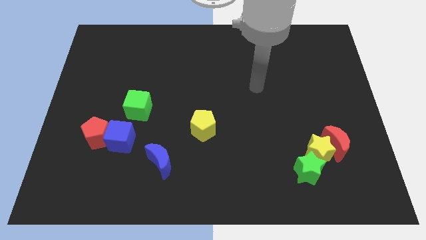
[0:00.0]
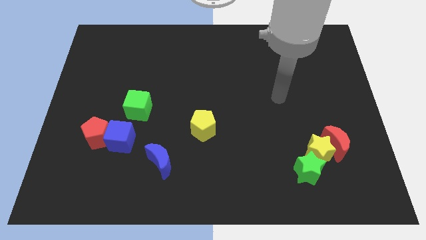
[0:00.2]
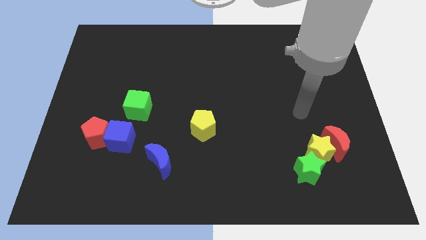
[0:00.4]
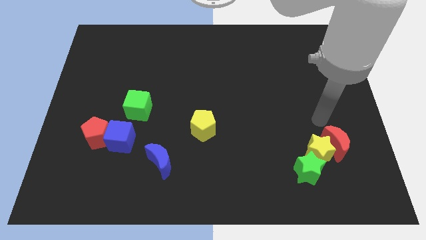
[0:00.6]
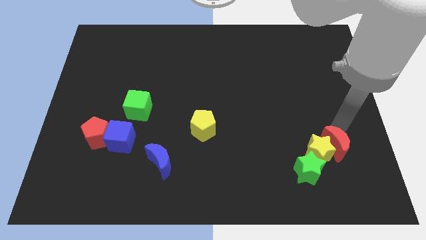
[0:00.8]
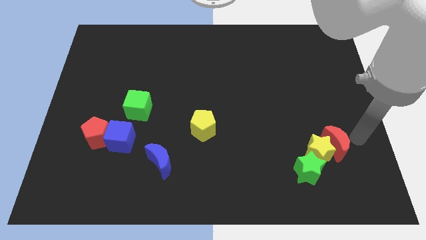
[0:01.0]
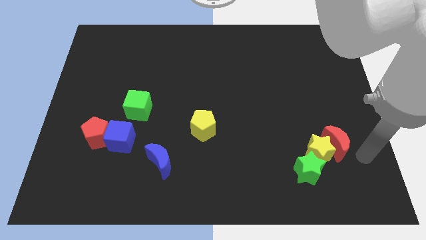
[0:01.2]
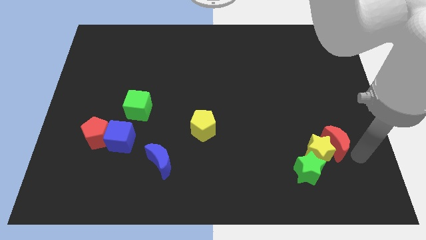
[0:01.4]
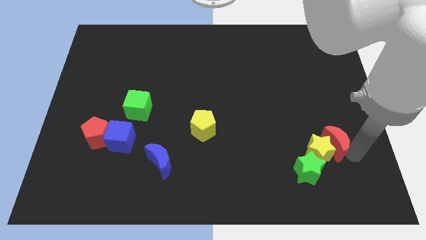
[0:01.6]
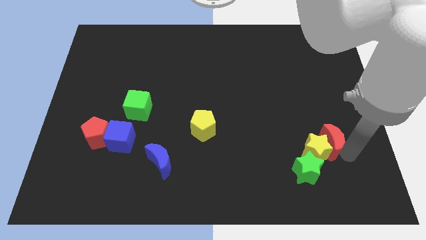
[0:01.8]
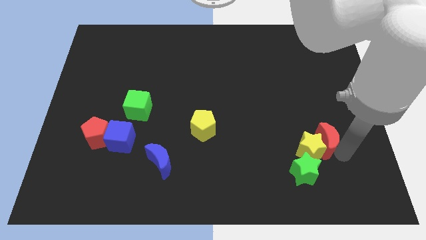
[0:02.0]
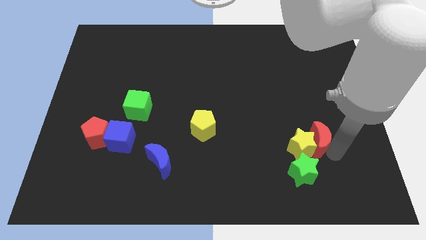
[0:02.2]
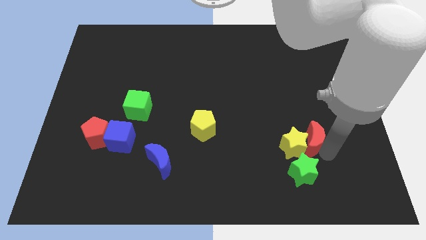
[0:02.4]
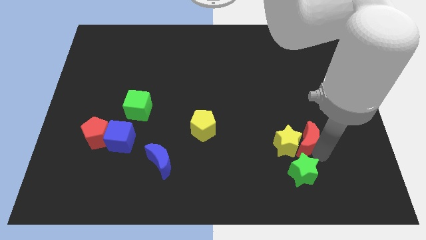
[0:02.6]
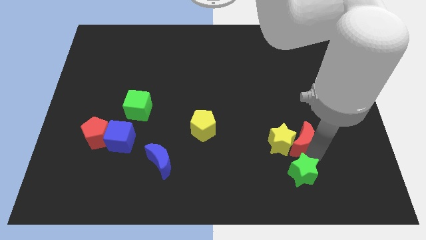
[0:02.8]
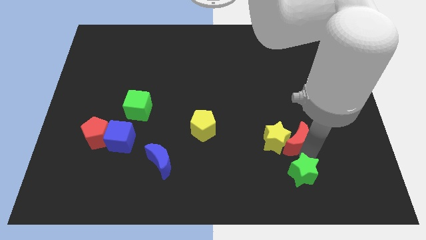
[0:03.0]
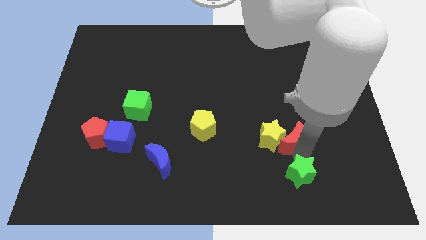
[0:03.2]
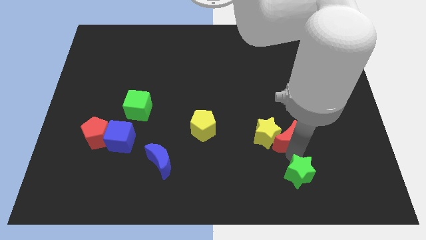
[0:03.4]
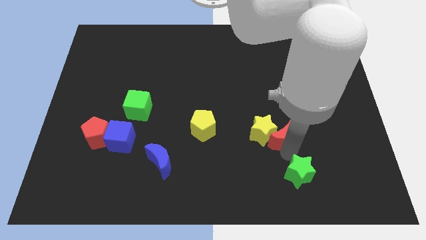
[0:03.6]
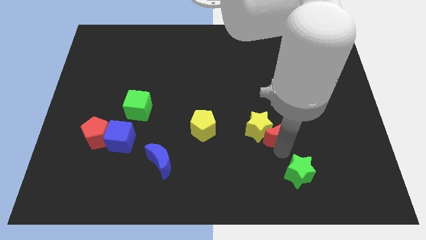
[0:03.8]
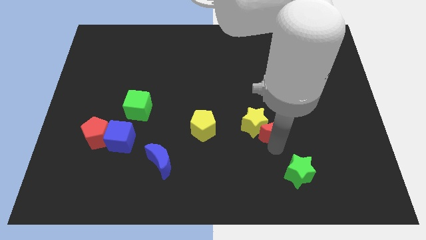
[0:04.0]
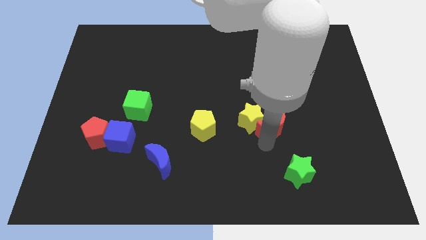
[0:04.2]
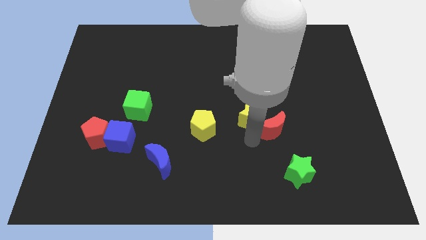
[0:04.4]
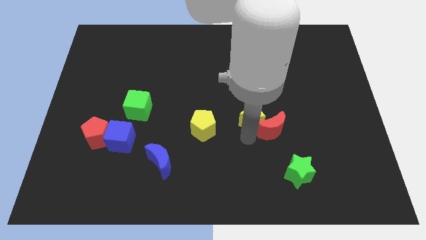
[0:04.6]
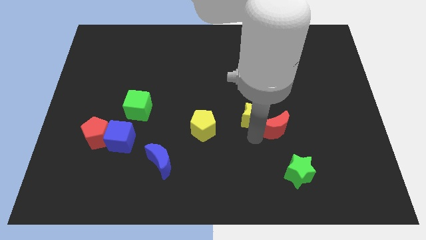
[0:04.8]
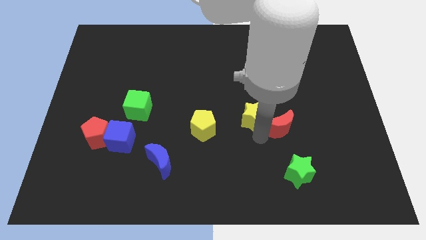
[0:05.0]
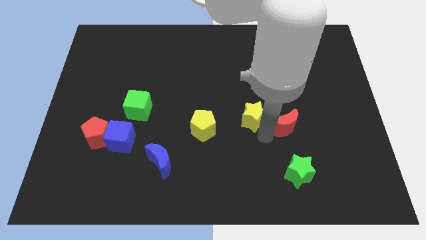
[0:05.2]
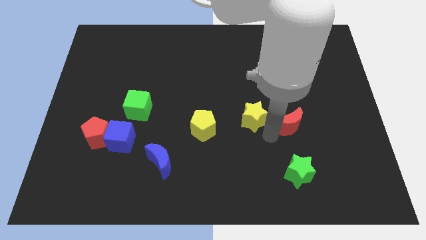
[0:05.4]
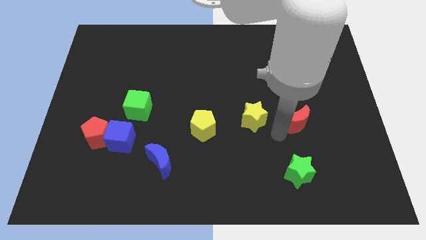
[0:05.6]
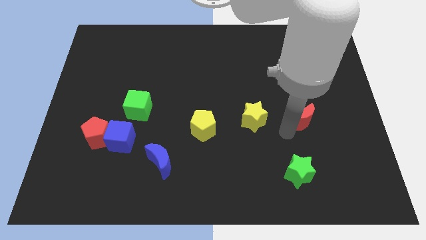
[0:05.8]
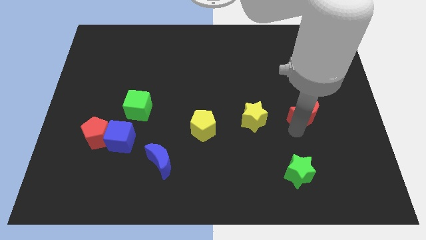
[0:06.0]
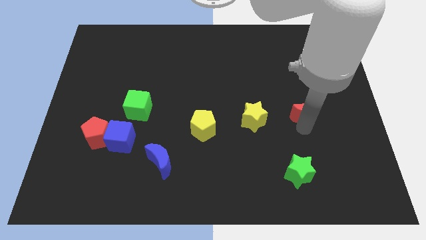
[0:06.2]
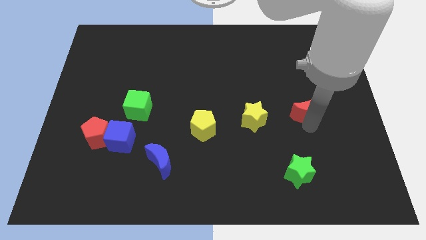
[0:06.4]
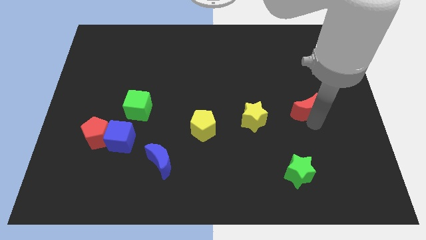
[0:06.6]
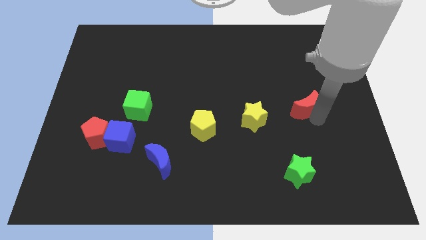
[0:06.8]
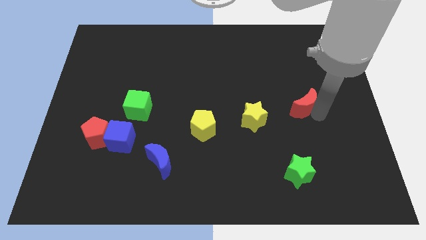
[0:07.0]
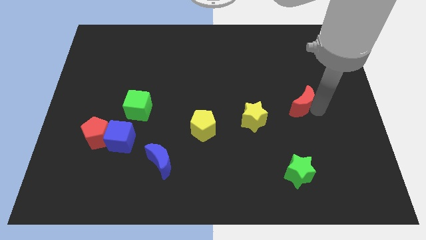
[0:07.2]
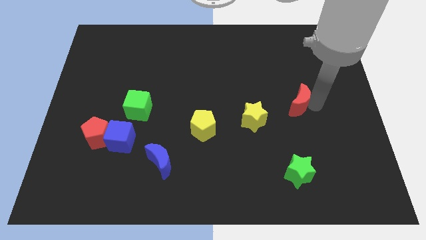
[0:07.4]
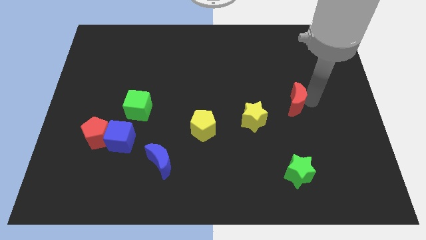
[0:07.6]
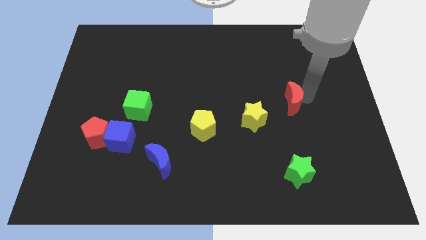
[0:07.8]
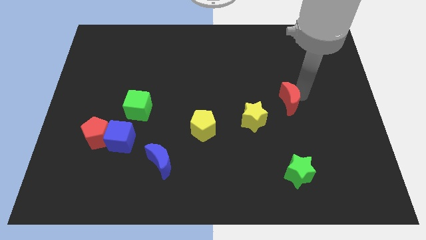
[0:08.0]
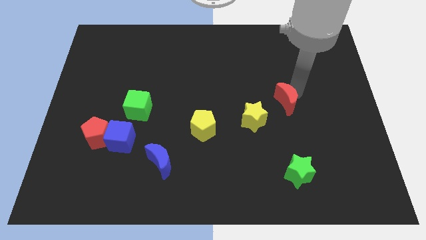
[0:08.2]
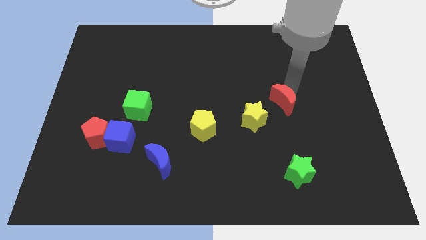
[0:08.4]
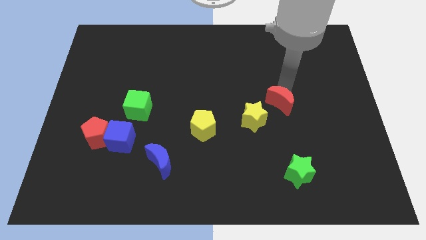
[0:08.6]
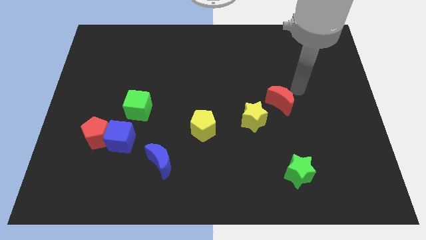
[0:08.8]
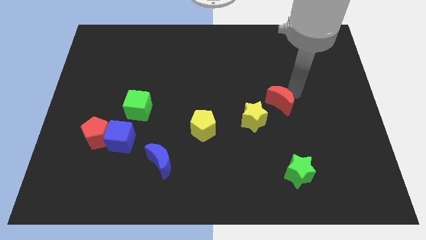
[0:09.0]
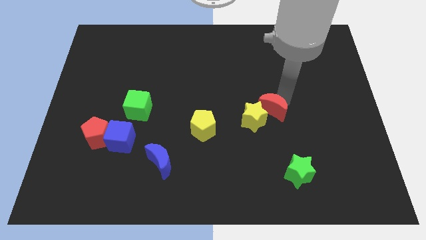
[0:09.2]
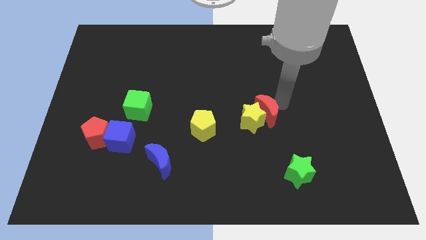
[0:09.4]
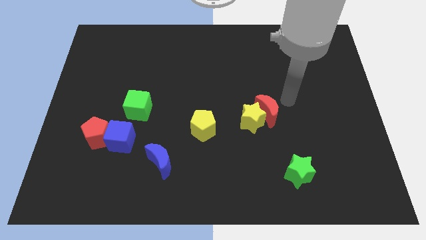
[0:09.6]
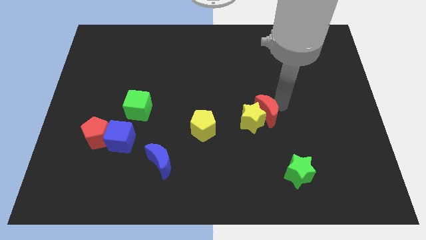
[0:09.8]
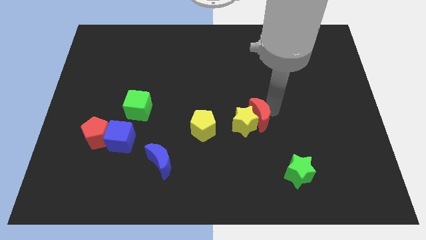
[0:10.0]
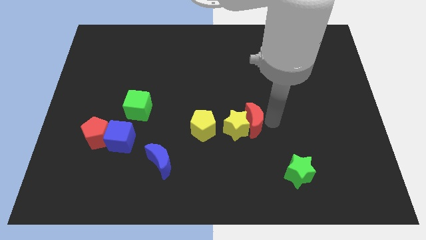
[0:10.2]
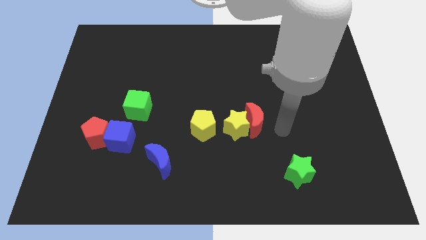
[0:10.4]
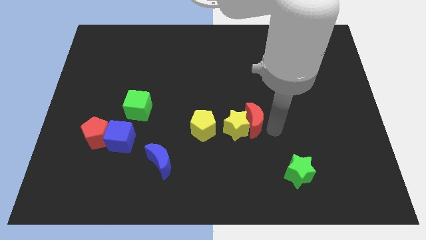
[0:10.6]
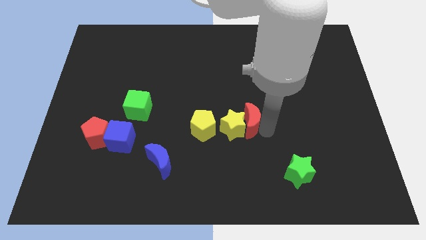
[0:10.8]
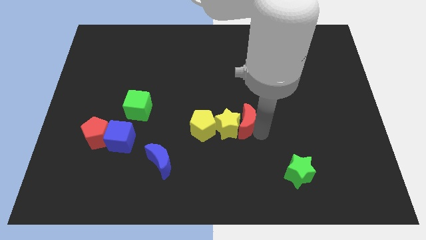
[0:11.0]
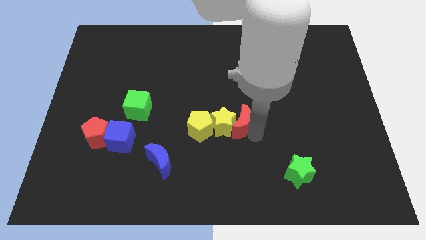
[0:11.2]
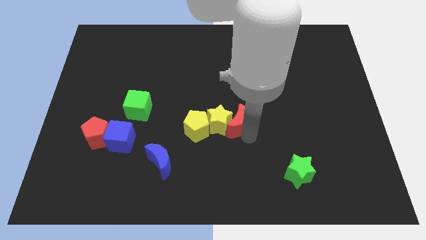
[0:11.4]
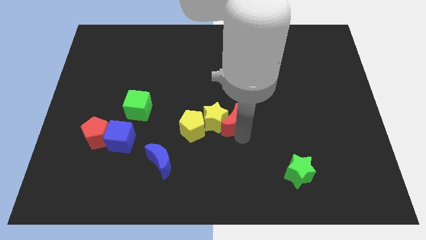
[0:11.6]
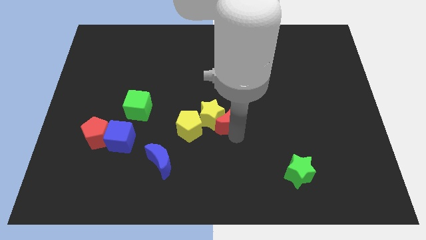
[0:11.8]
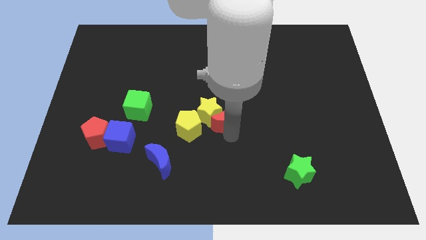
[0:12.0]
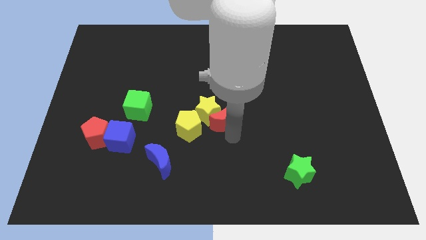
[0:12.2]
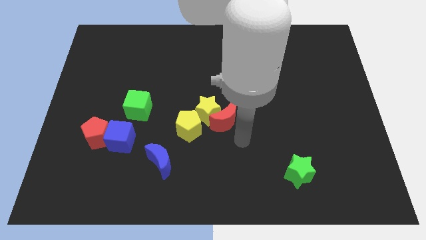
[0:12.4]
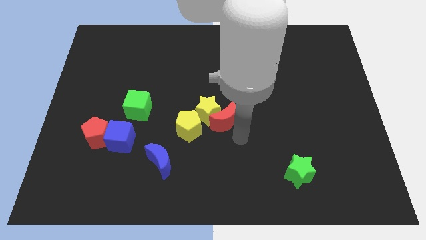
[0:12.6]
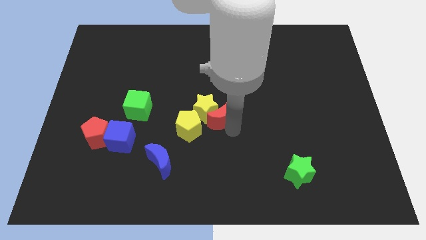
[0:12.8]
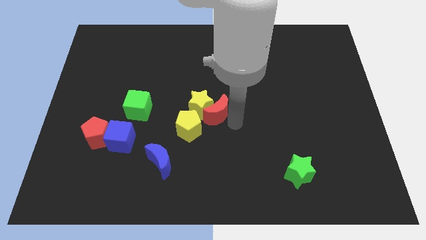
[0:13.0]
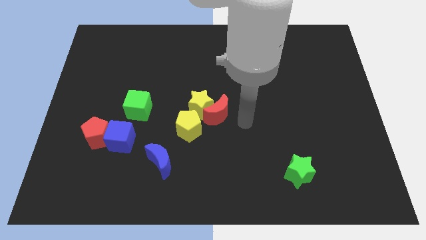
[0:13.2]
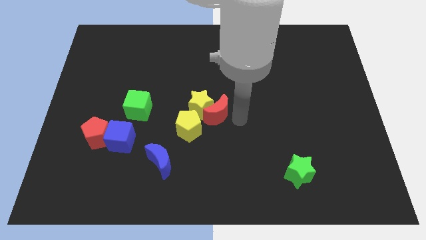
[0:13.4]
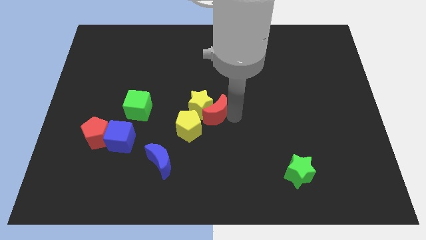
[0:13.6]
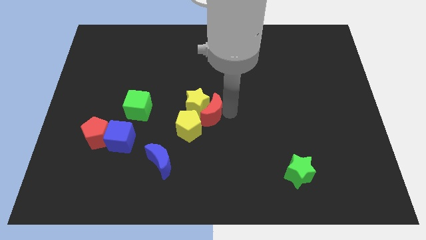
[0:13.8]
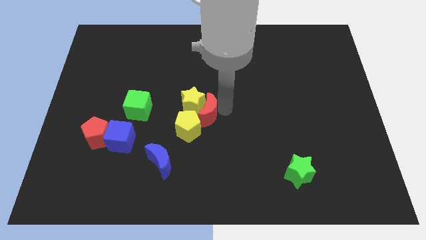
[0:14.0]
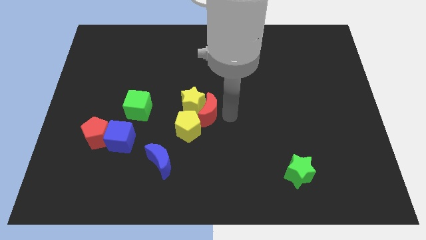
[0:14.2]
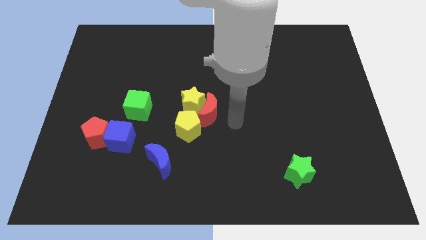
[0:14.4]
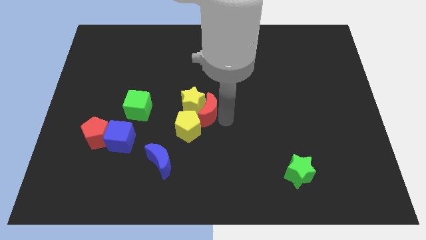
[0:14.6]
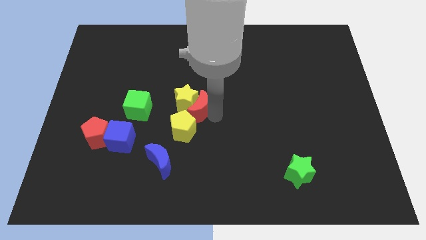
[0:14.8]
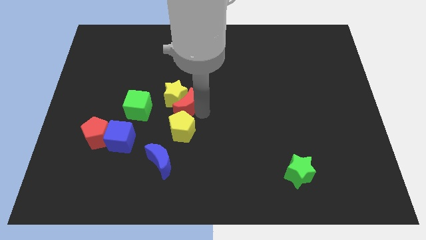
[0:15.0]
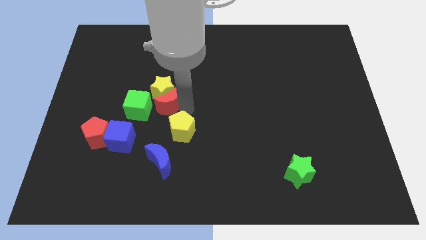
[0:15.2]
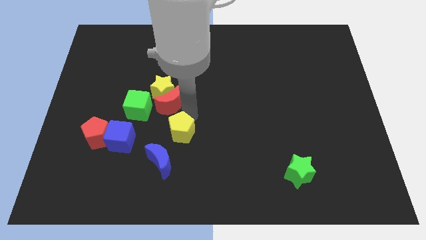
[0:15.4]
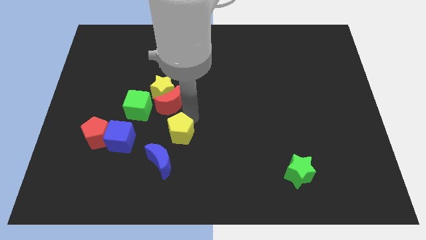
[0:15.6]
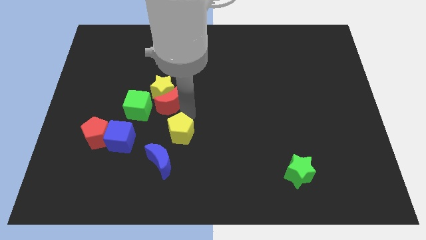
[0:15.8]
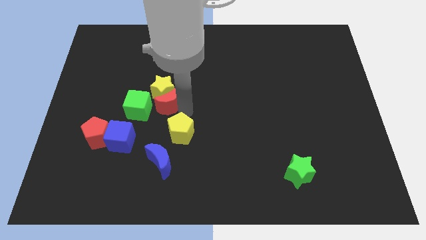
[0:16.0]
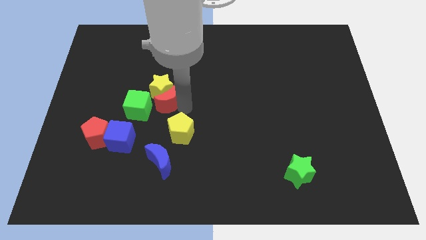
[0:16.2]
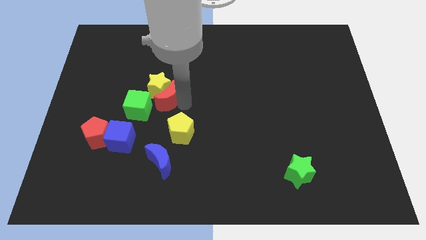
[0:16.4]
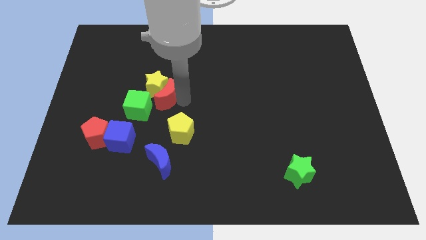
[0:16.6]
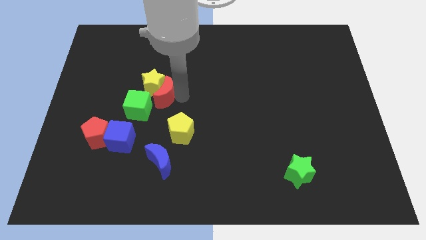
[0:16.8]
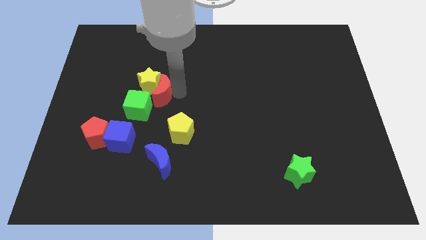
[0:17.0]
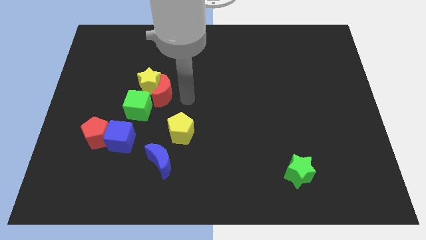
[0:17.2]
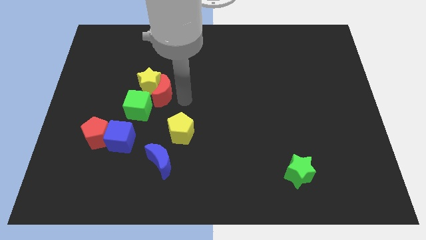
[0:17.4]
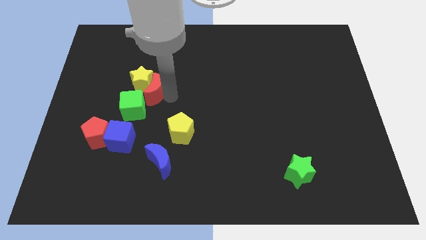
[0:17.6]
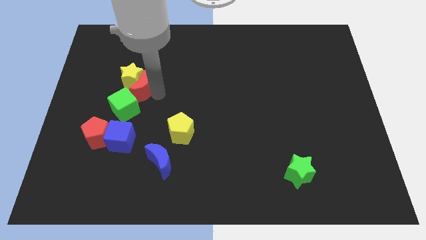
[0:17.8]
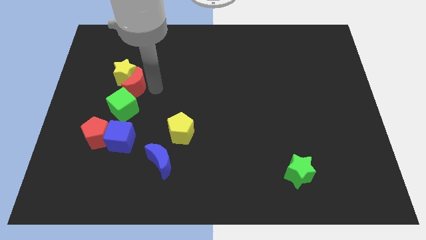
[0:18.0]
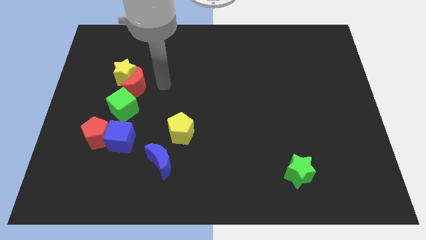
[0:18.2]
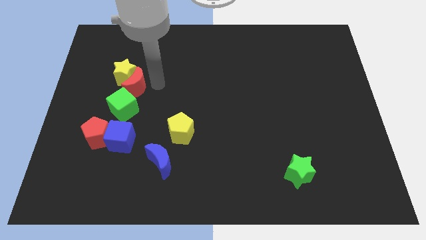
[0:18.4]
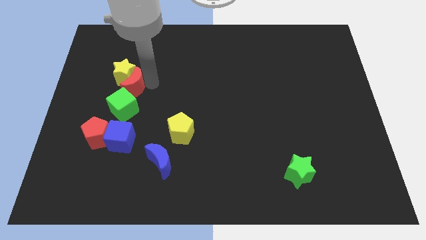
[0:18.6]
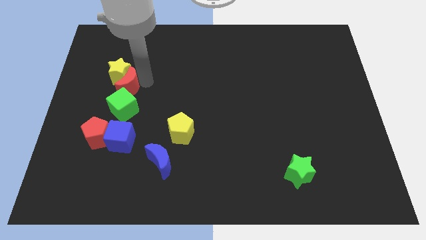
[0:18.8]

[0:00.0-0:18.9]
slide the red moon to the top left of the green cube
